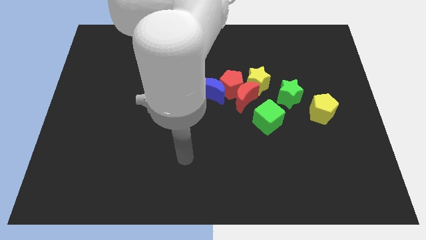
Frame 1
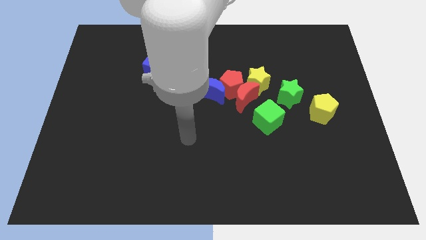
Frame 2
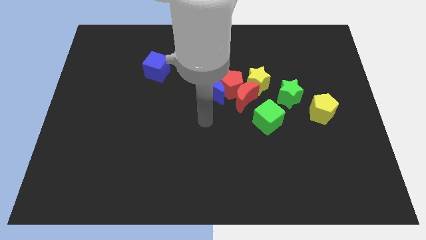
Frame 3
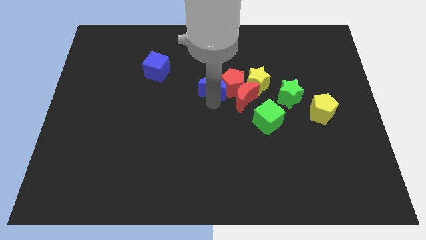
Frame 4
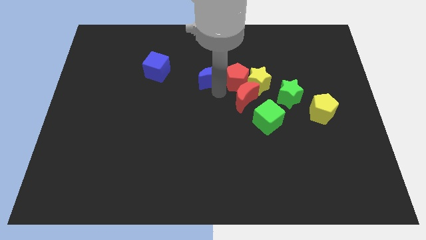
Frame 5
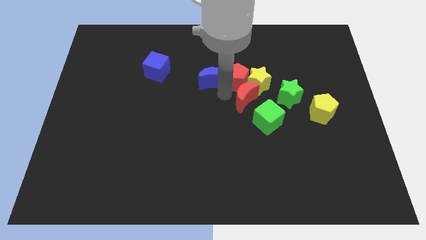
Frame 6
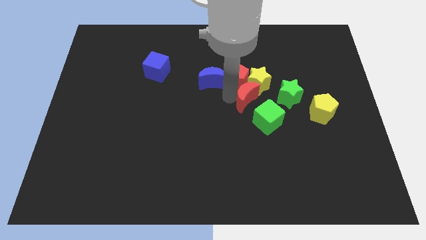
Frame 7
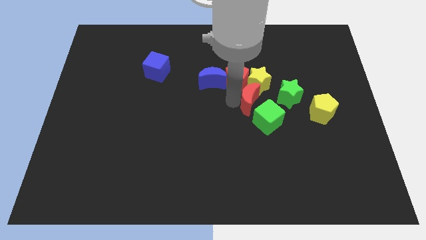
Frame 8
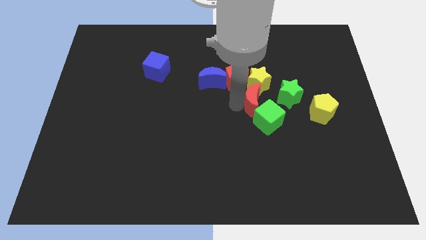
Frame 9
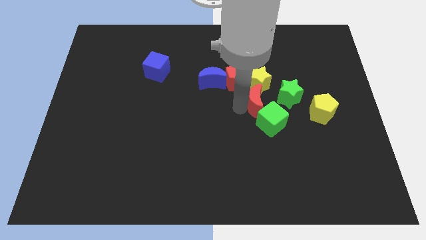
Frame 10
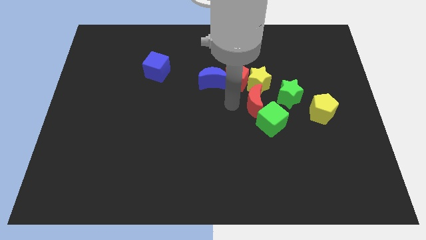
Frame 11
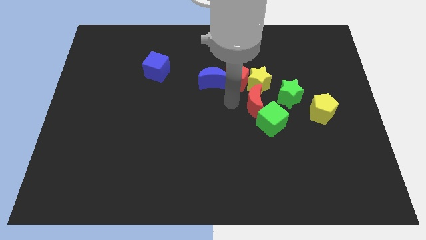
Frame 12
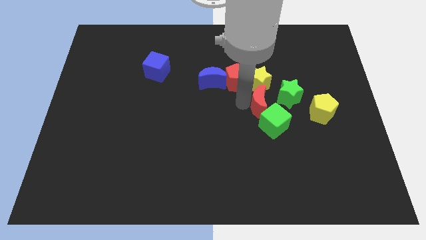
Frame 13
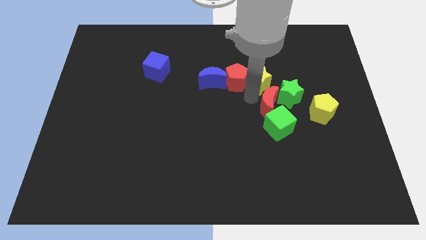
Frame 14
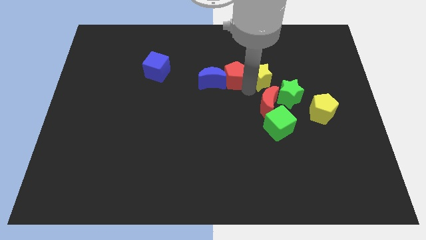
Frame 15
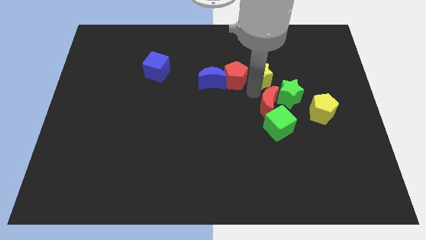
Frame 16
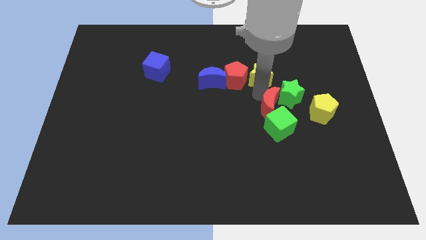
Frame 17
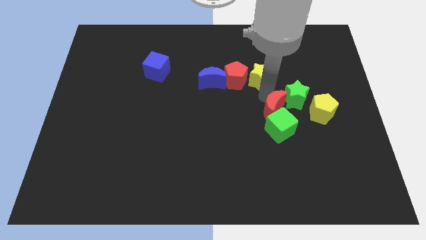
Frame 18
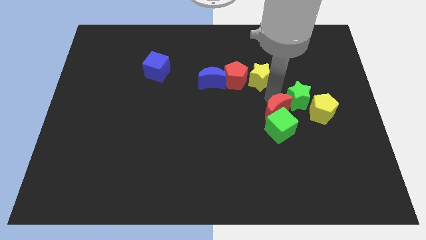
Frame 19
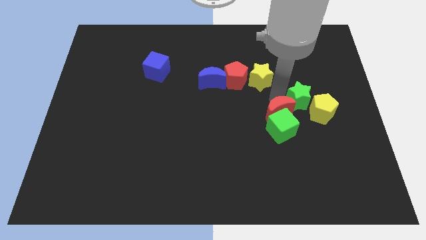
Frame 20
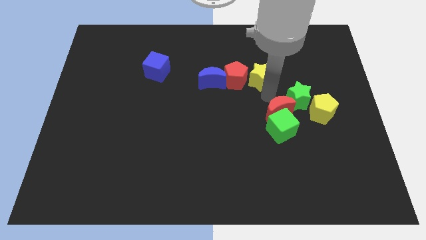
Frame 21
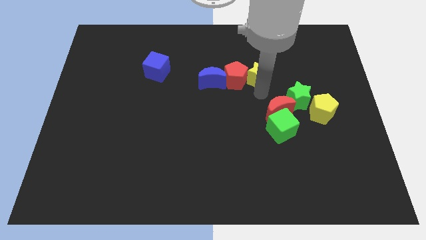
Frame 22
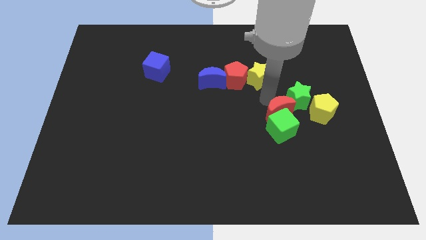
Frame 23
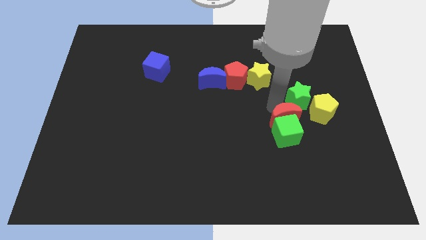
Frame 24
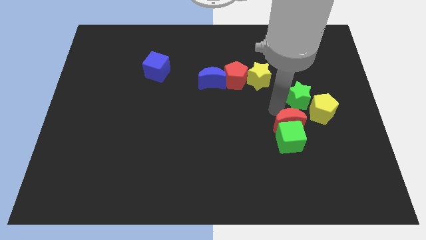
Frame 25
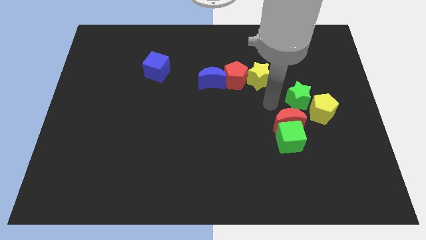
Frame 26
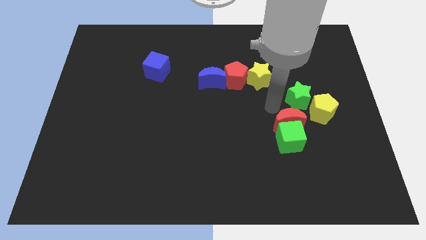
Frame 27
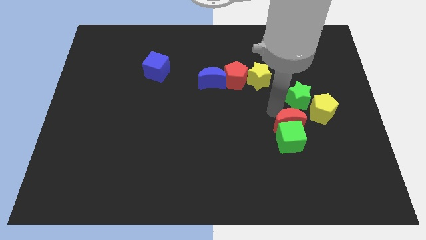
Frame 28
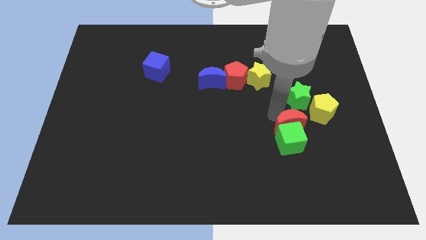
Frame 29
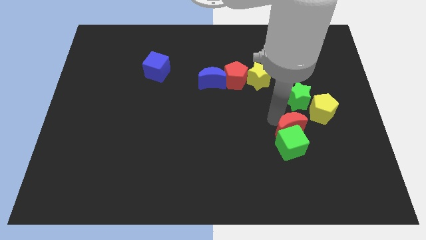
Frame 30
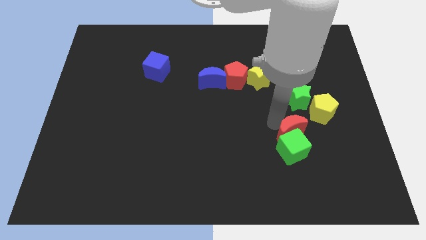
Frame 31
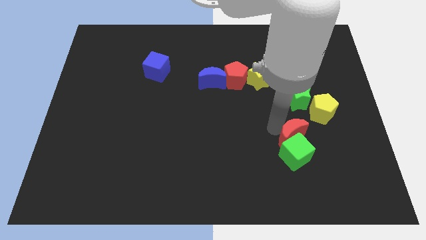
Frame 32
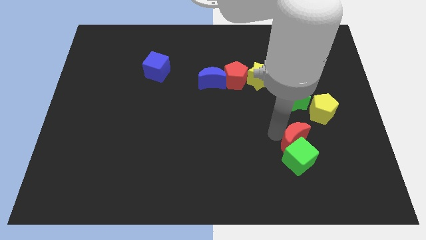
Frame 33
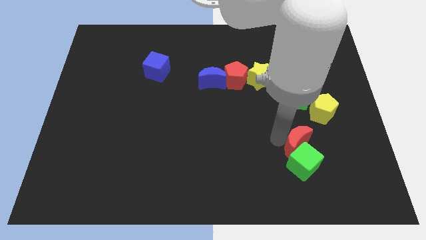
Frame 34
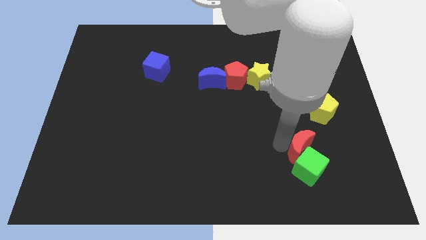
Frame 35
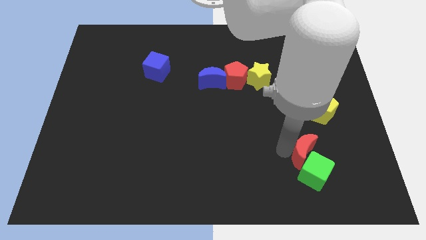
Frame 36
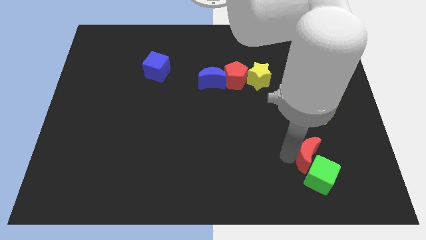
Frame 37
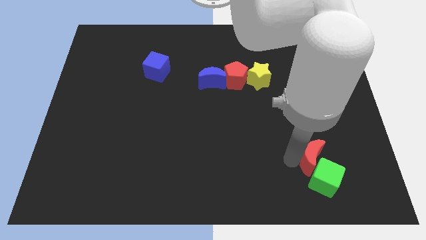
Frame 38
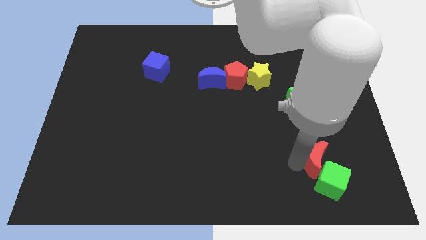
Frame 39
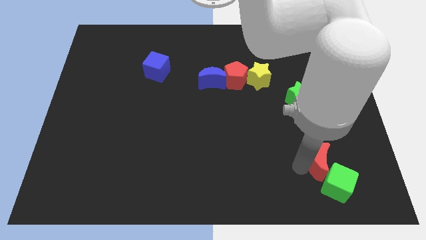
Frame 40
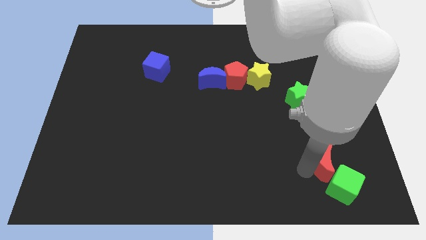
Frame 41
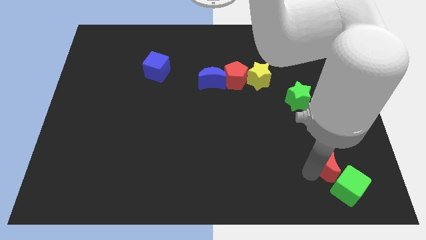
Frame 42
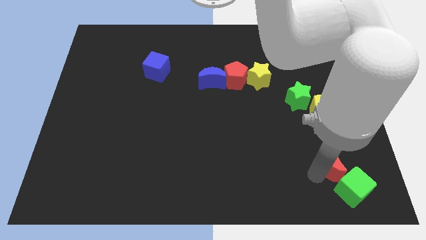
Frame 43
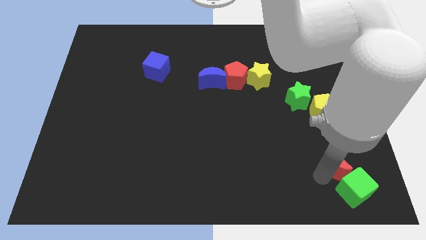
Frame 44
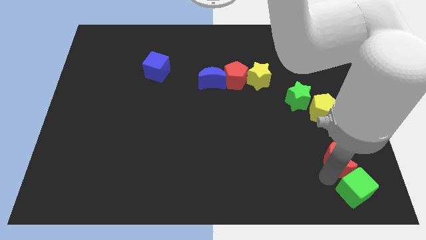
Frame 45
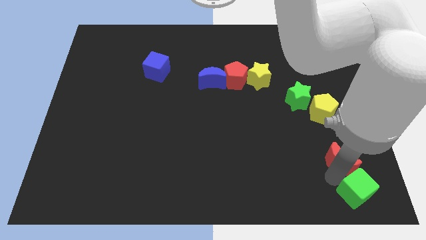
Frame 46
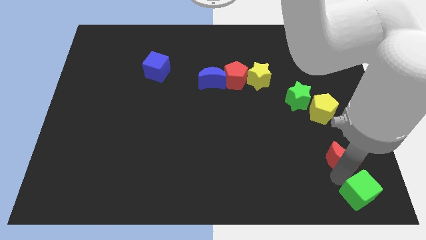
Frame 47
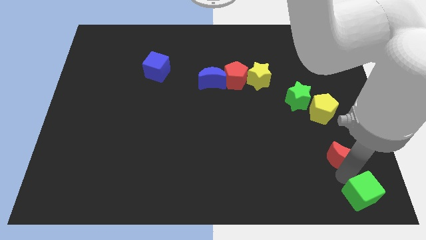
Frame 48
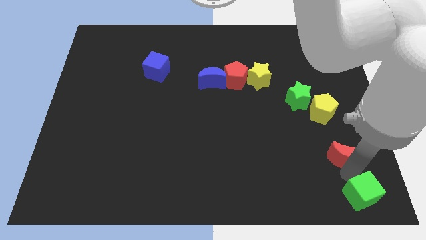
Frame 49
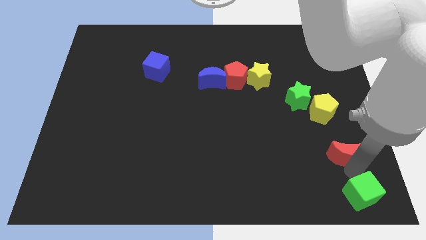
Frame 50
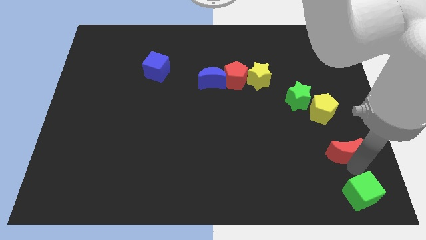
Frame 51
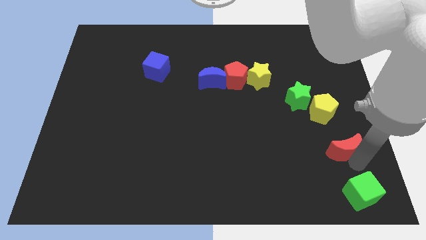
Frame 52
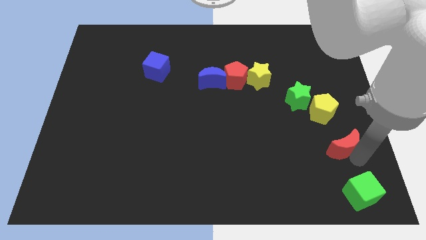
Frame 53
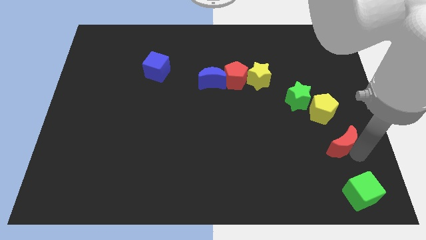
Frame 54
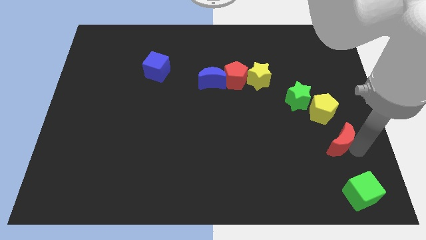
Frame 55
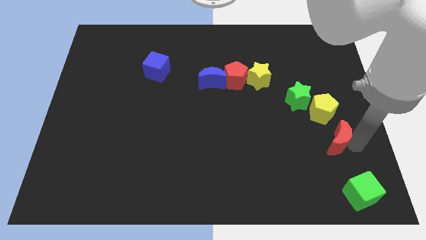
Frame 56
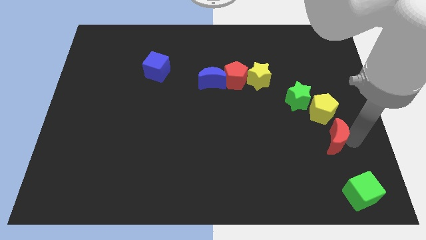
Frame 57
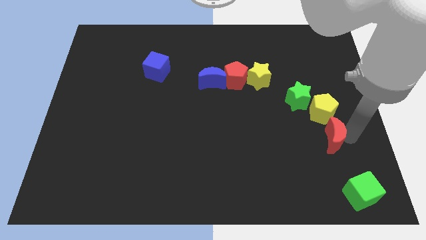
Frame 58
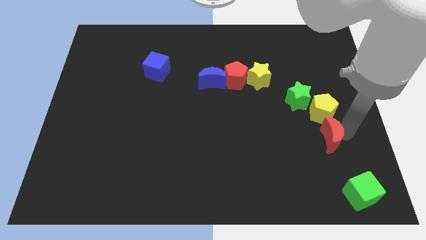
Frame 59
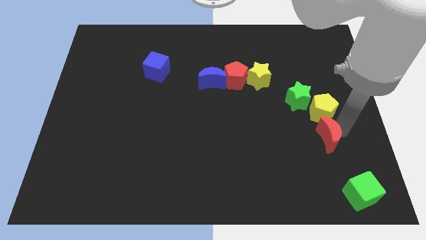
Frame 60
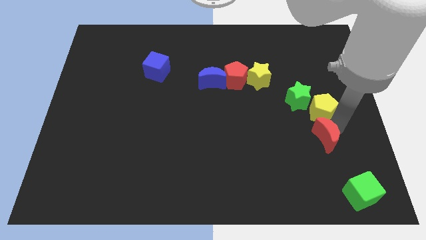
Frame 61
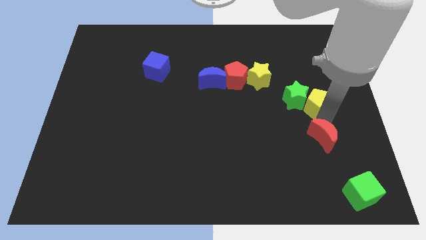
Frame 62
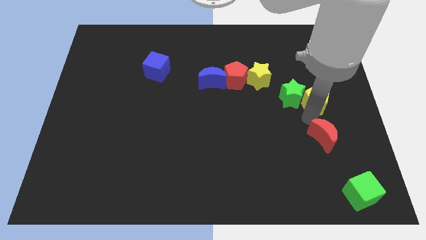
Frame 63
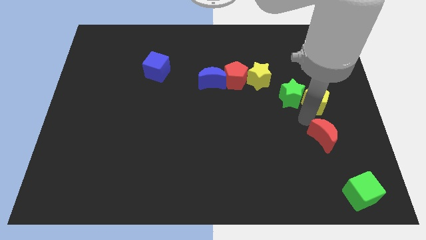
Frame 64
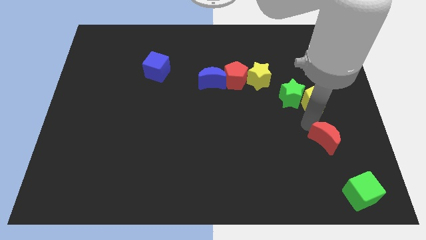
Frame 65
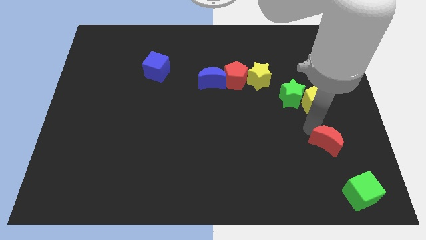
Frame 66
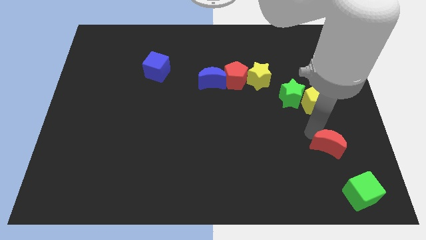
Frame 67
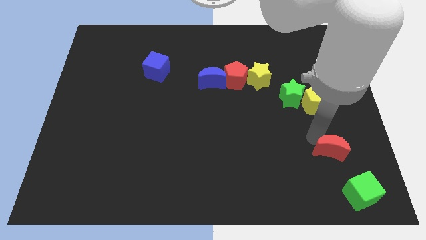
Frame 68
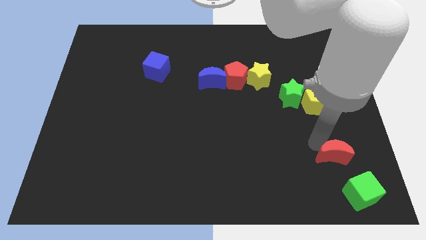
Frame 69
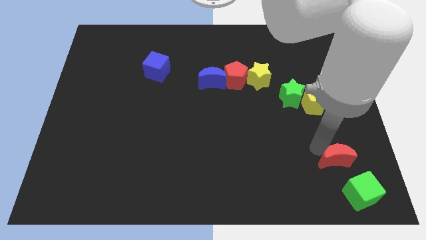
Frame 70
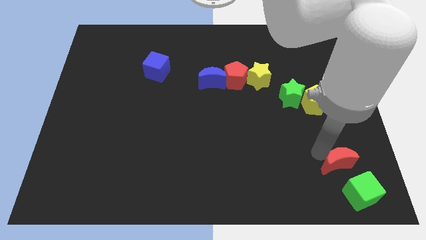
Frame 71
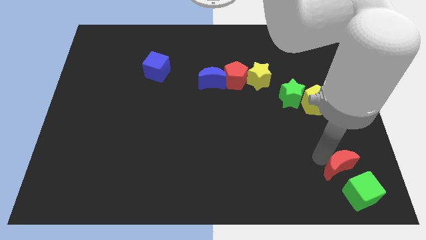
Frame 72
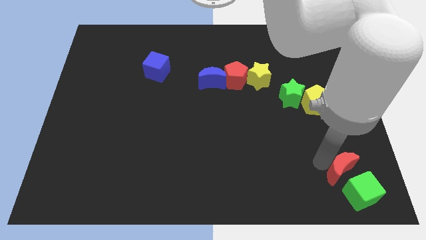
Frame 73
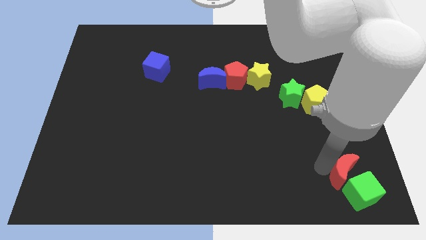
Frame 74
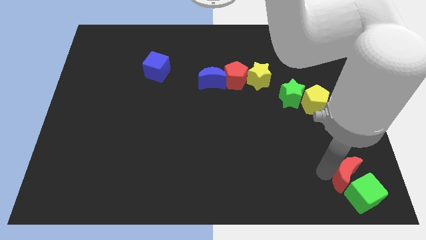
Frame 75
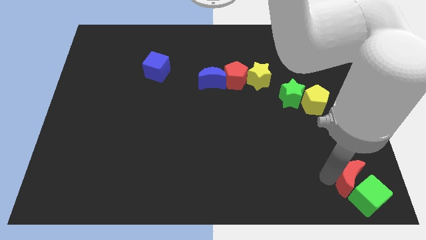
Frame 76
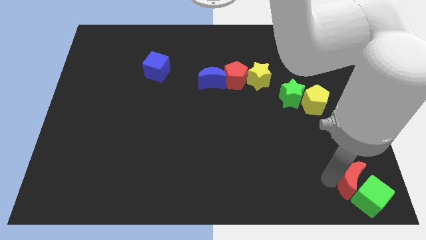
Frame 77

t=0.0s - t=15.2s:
put the red moon to the bottom right of the board
